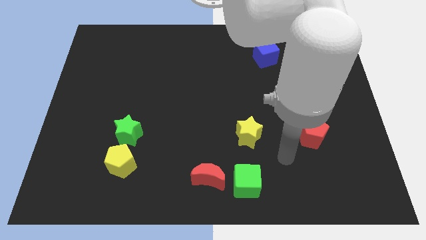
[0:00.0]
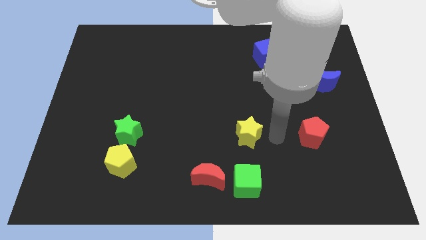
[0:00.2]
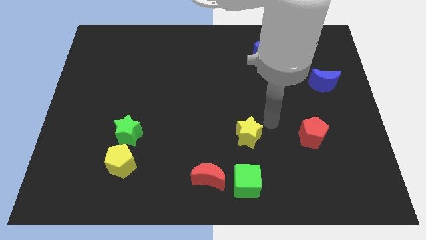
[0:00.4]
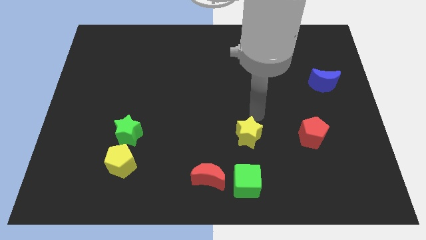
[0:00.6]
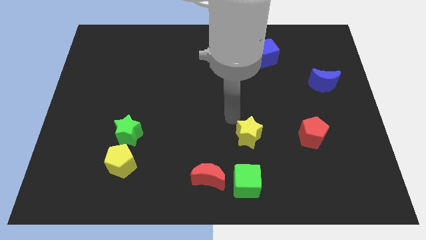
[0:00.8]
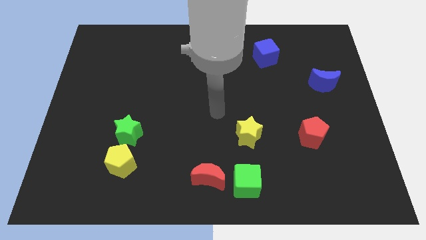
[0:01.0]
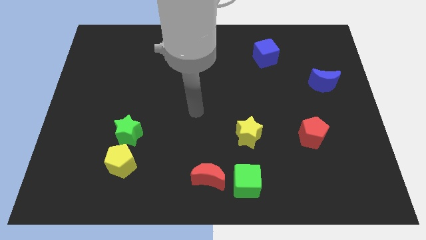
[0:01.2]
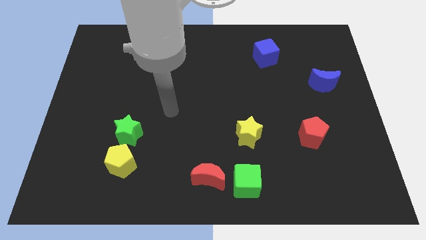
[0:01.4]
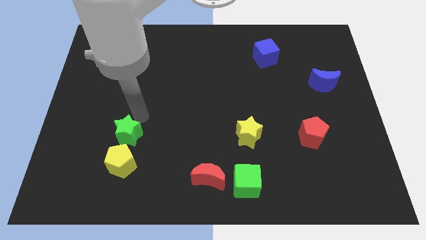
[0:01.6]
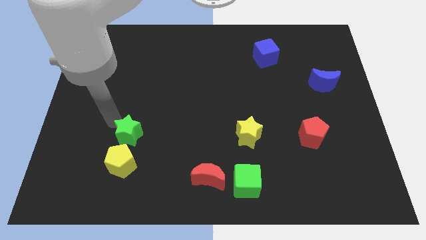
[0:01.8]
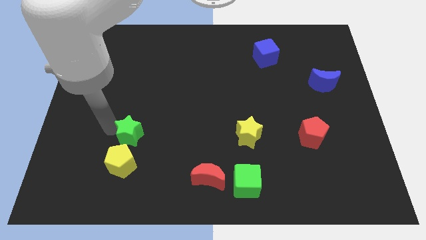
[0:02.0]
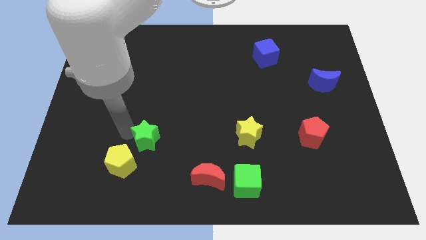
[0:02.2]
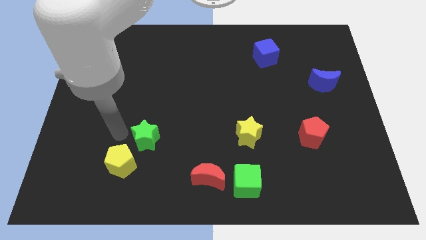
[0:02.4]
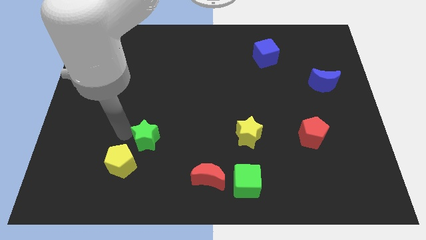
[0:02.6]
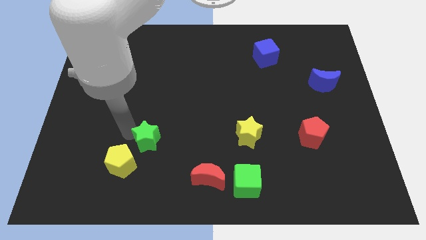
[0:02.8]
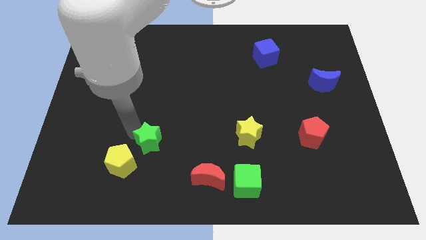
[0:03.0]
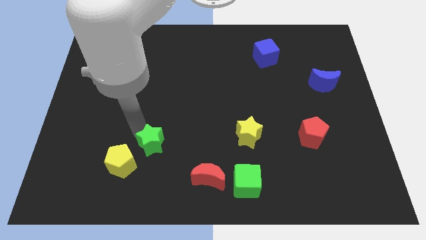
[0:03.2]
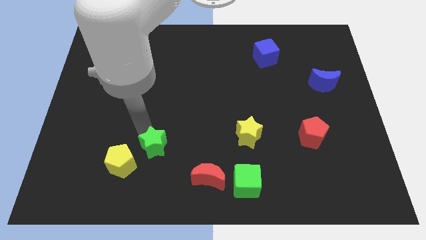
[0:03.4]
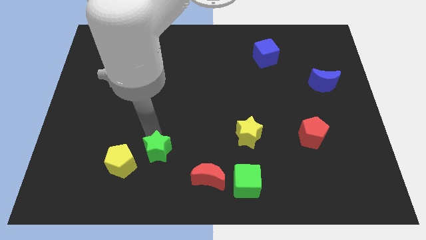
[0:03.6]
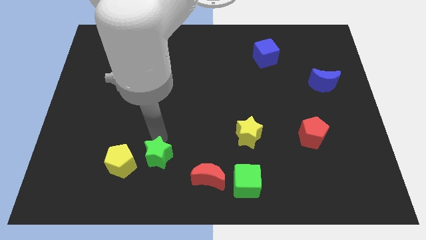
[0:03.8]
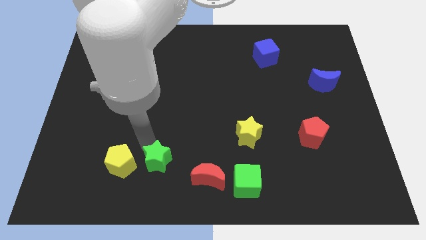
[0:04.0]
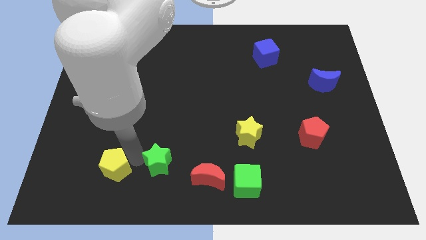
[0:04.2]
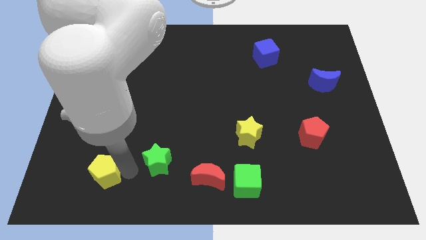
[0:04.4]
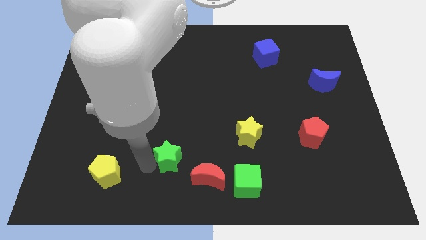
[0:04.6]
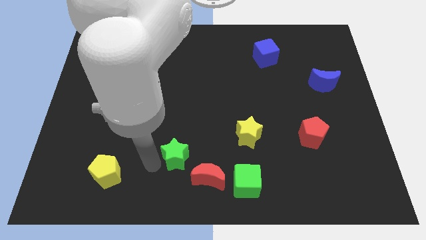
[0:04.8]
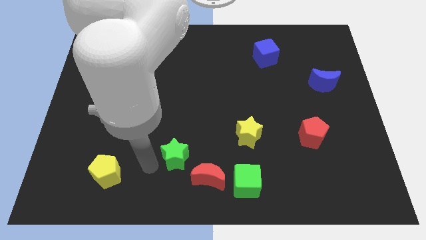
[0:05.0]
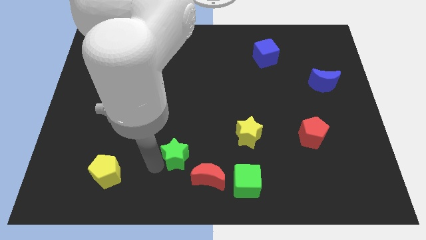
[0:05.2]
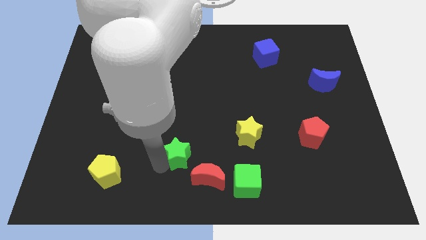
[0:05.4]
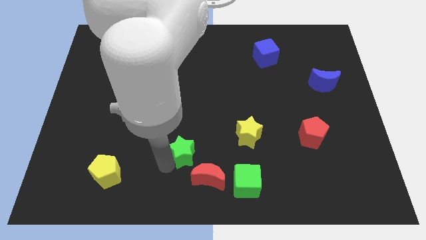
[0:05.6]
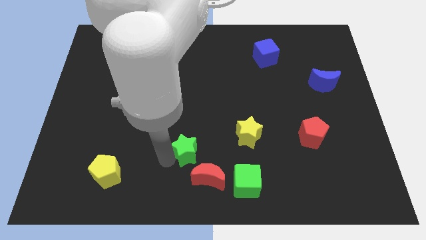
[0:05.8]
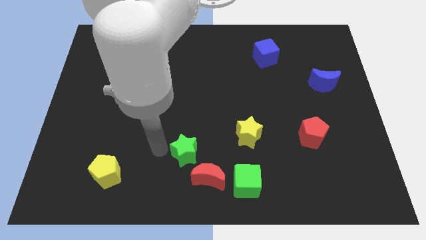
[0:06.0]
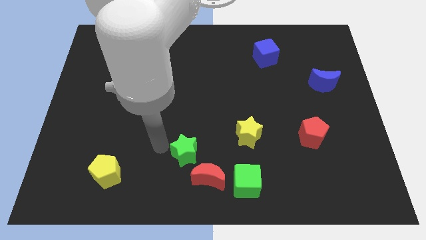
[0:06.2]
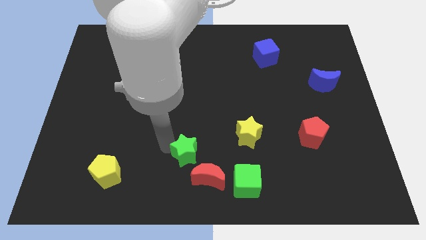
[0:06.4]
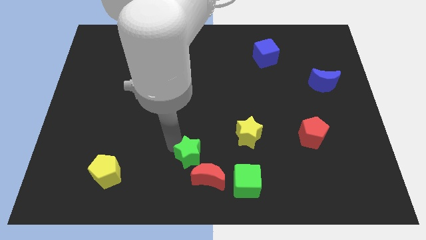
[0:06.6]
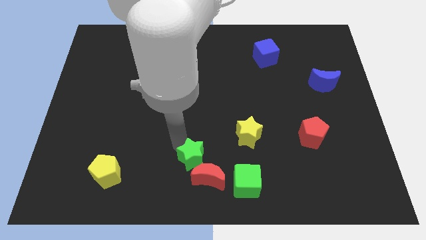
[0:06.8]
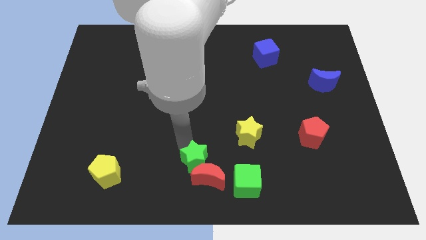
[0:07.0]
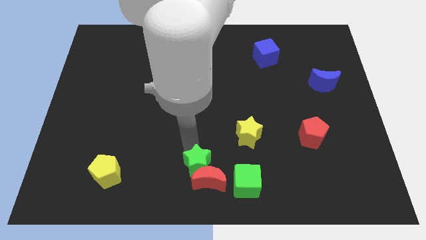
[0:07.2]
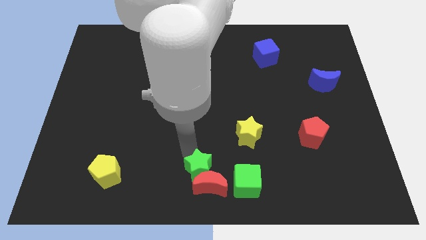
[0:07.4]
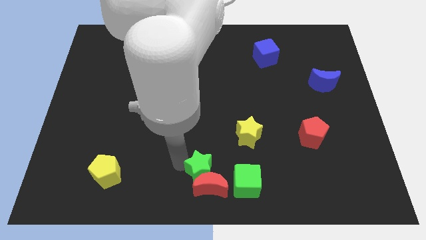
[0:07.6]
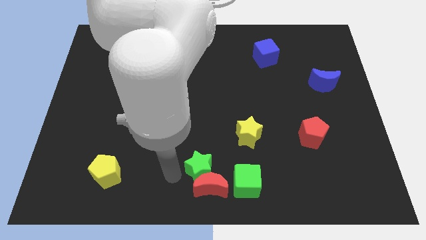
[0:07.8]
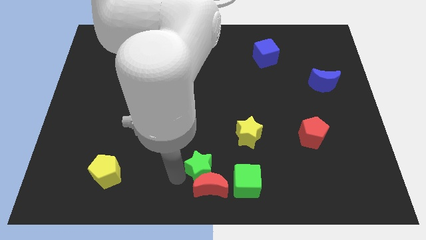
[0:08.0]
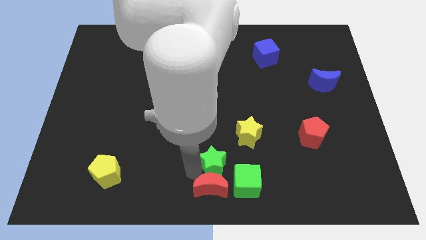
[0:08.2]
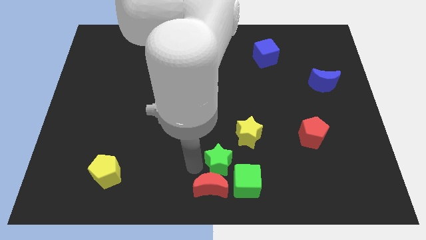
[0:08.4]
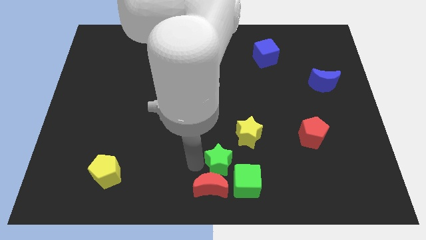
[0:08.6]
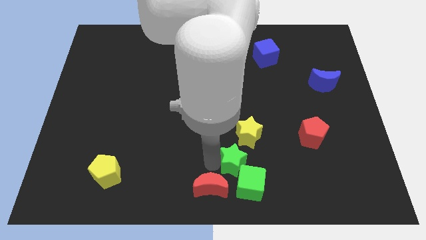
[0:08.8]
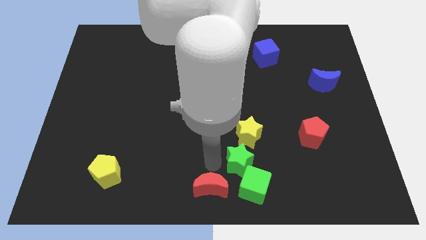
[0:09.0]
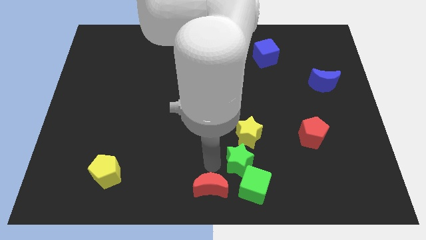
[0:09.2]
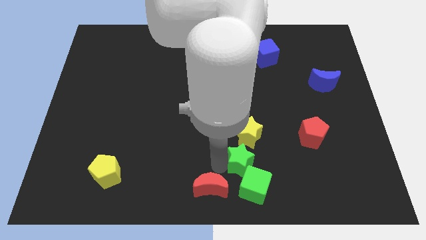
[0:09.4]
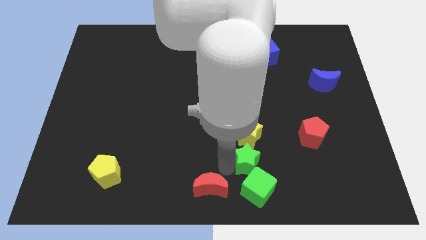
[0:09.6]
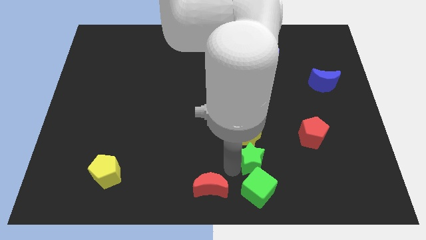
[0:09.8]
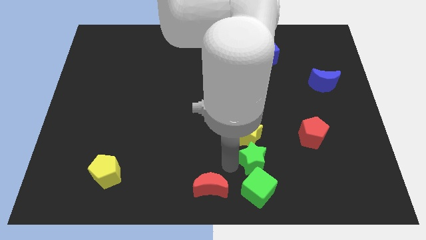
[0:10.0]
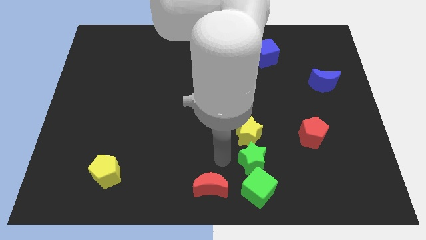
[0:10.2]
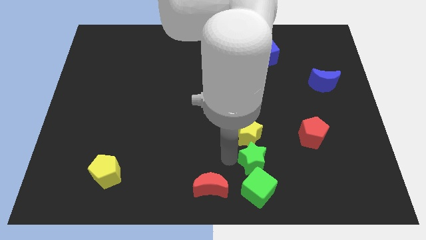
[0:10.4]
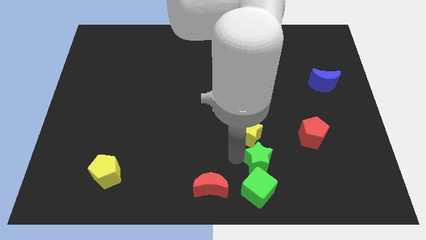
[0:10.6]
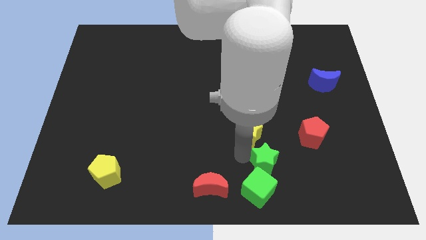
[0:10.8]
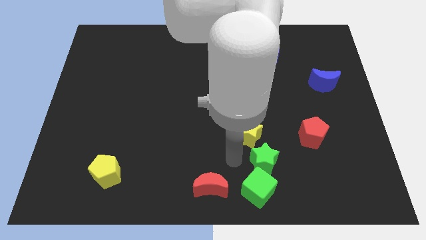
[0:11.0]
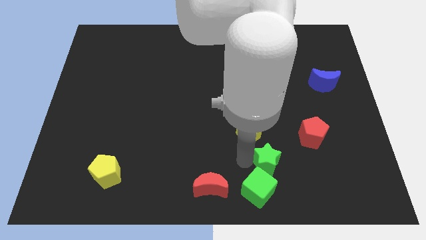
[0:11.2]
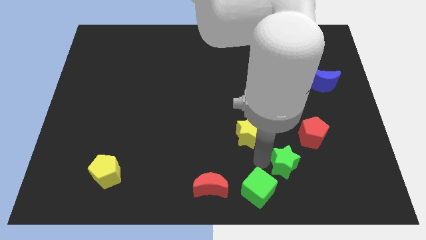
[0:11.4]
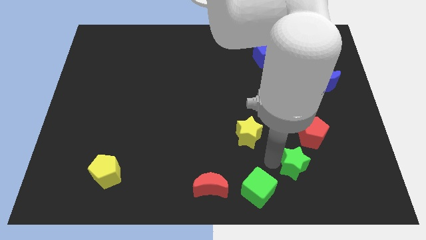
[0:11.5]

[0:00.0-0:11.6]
put the green star to the bottom of the red pentagon

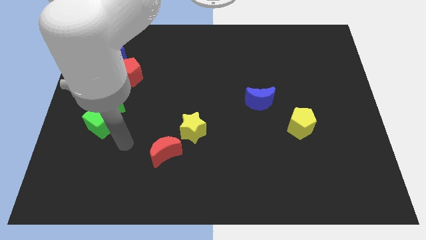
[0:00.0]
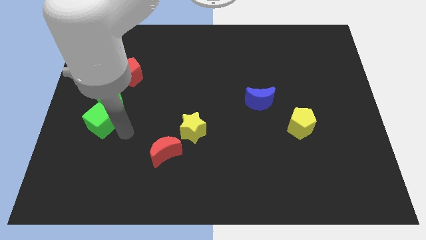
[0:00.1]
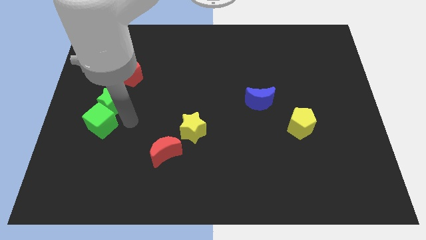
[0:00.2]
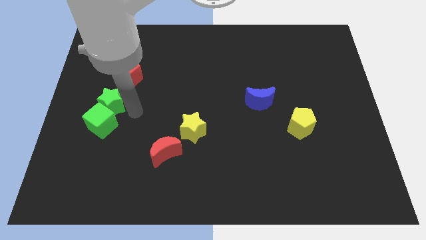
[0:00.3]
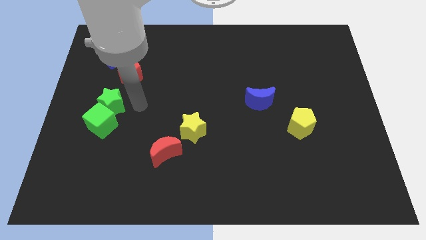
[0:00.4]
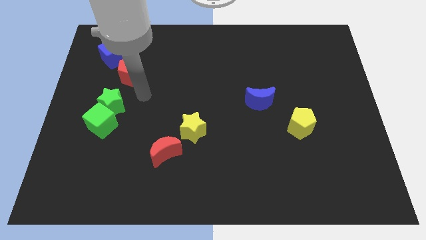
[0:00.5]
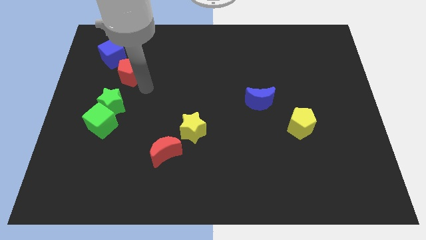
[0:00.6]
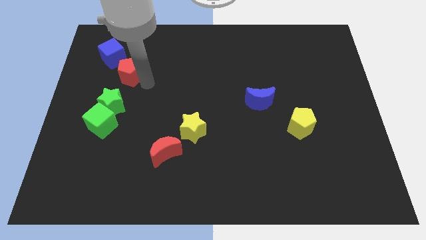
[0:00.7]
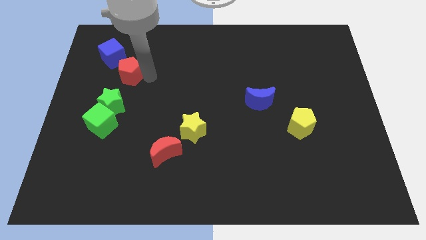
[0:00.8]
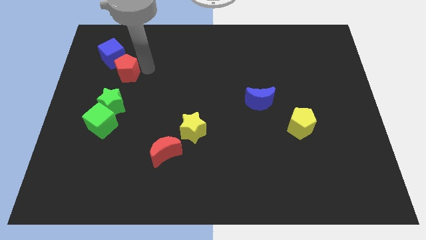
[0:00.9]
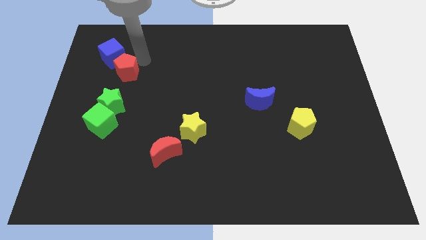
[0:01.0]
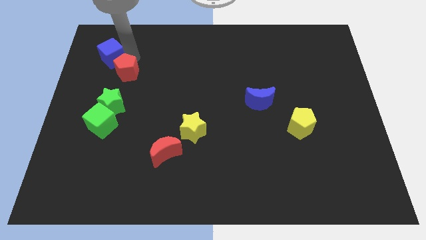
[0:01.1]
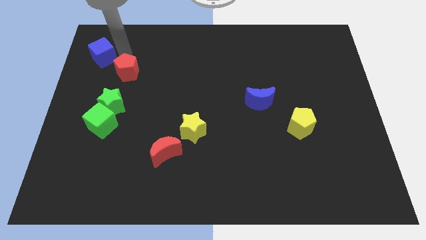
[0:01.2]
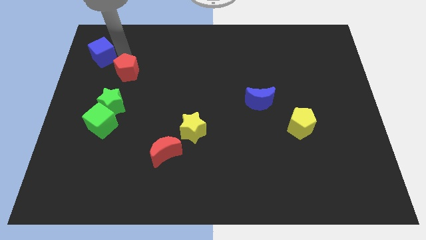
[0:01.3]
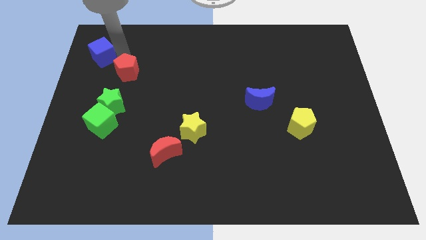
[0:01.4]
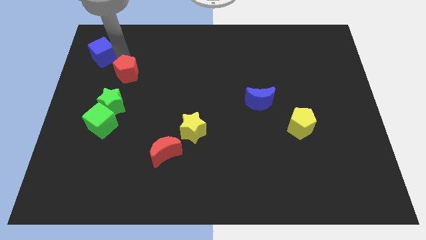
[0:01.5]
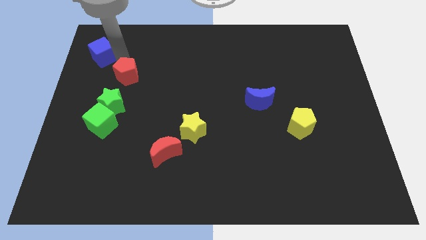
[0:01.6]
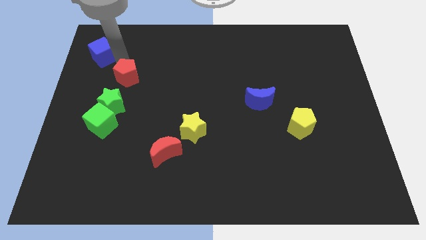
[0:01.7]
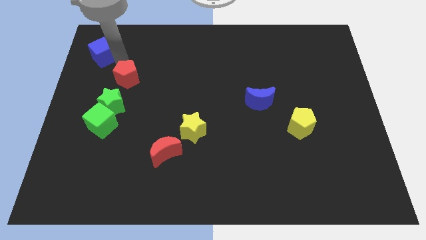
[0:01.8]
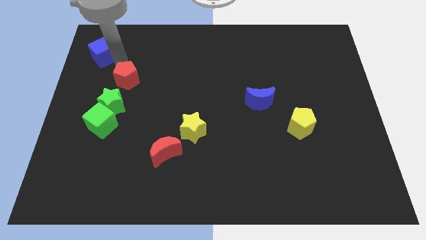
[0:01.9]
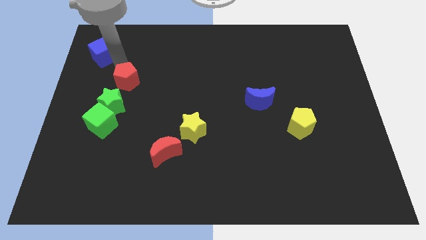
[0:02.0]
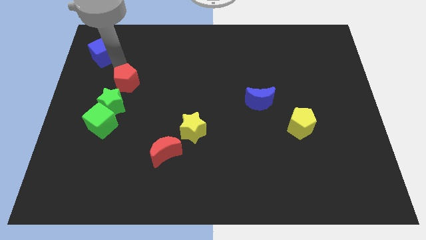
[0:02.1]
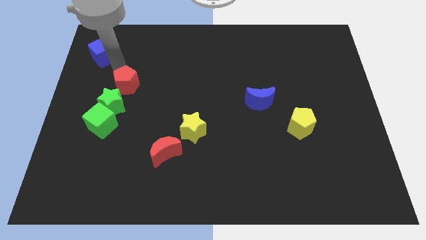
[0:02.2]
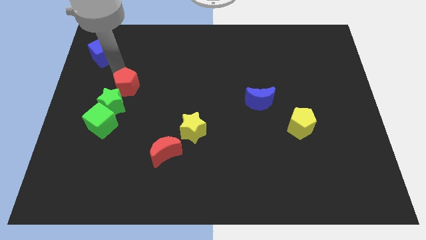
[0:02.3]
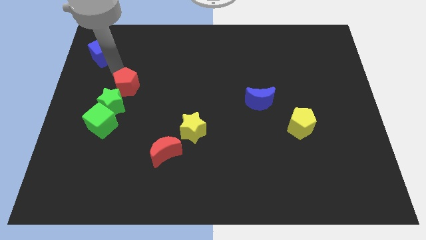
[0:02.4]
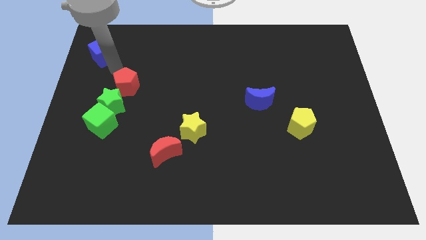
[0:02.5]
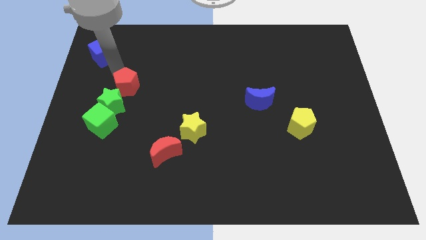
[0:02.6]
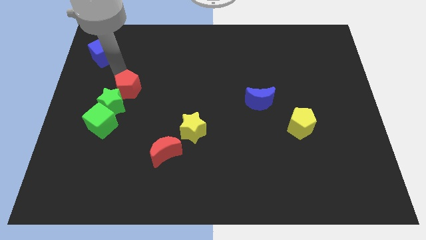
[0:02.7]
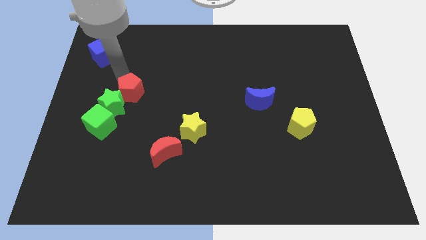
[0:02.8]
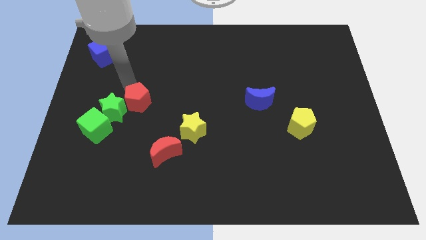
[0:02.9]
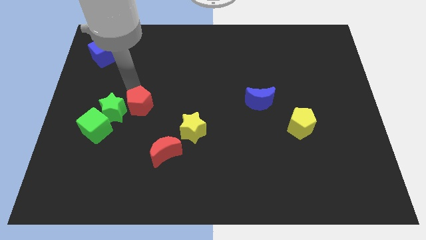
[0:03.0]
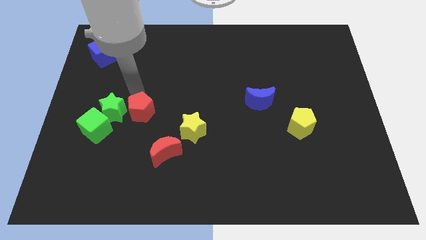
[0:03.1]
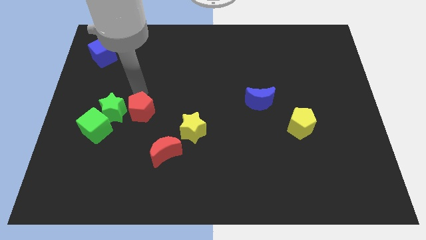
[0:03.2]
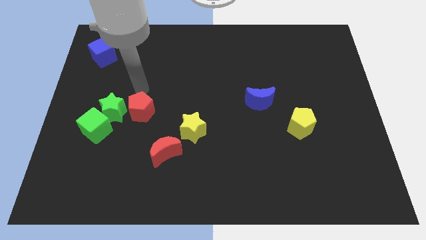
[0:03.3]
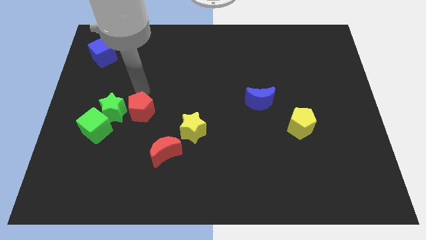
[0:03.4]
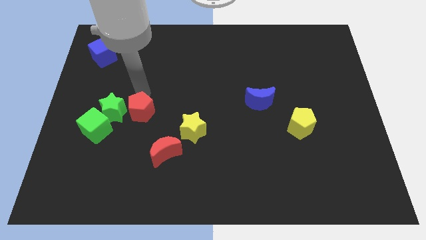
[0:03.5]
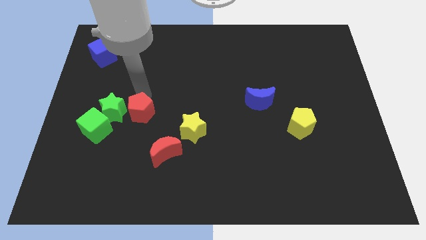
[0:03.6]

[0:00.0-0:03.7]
move the red pentagon right of the green cube
